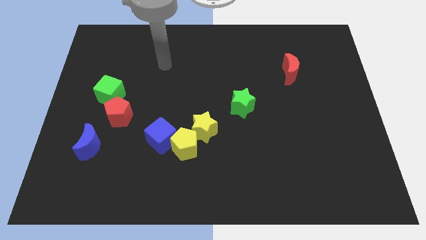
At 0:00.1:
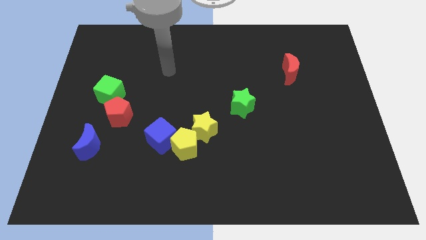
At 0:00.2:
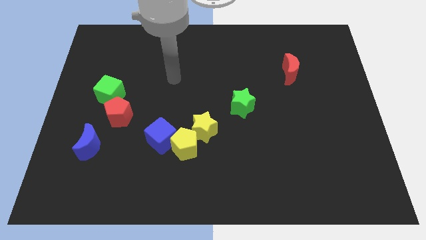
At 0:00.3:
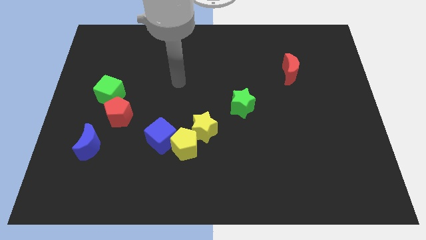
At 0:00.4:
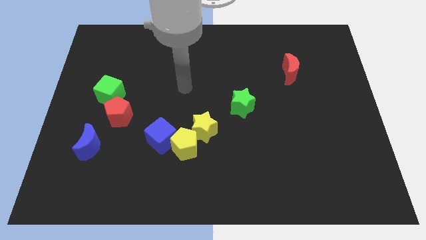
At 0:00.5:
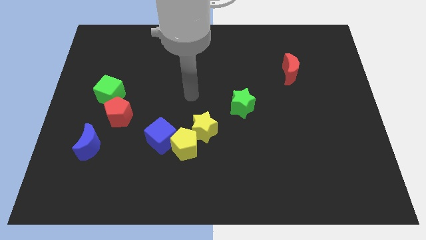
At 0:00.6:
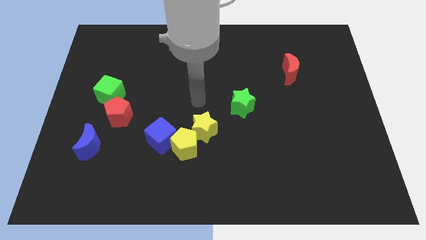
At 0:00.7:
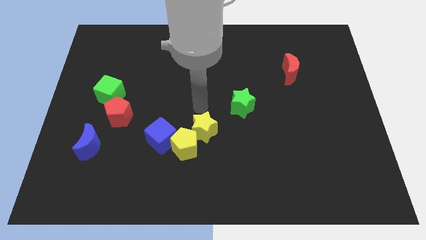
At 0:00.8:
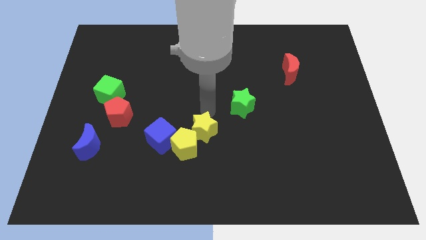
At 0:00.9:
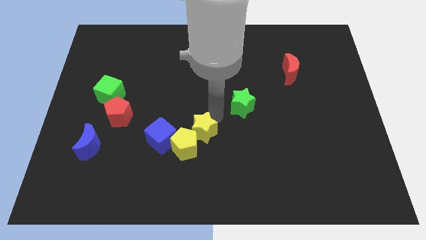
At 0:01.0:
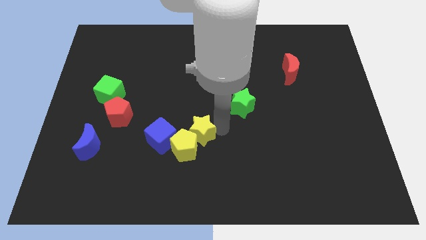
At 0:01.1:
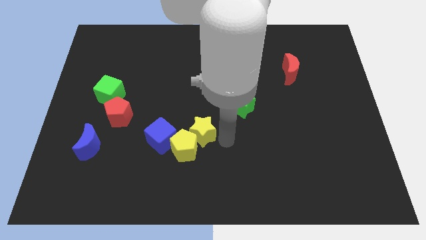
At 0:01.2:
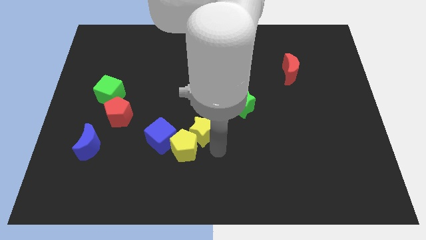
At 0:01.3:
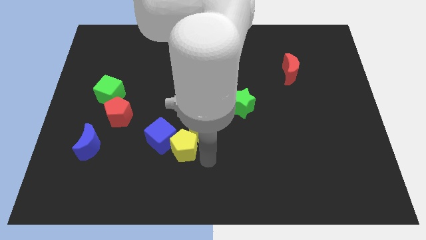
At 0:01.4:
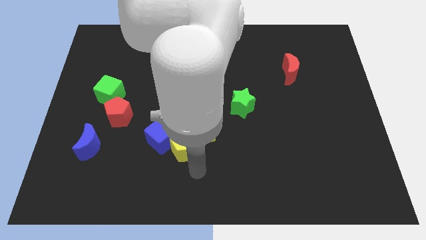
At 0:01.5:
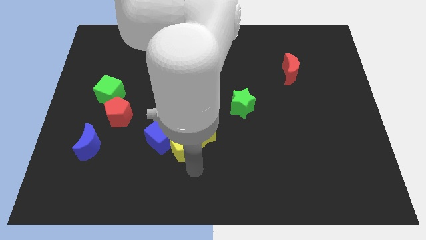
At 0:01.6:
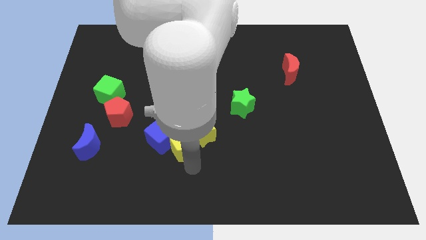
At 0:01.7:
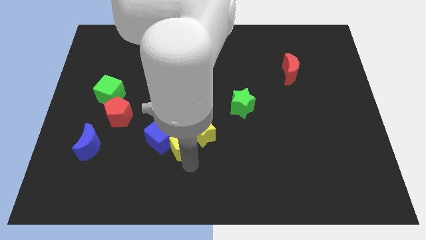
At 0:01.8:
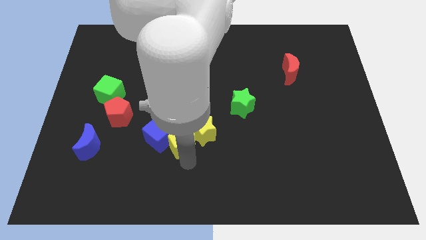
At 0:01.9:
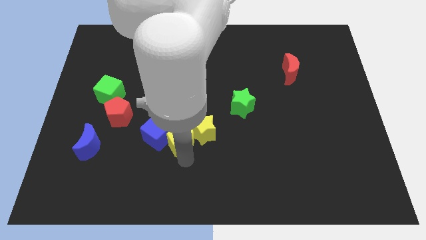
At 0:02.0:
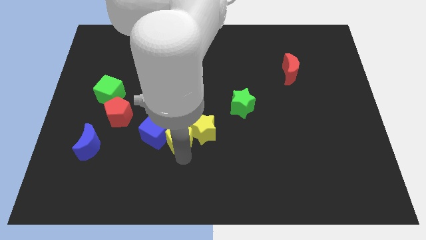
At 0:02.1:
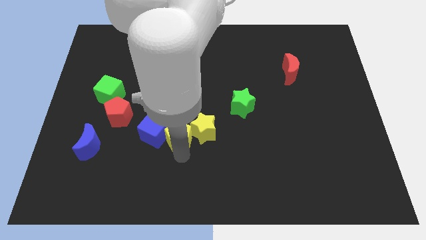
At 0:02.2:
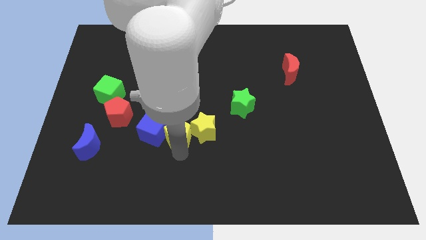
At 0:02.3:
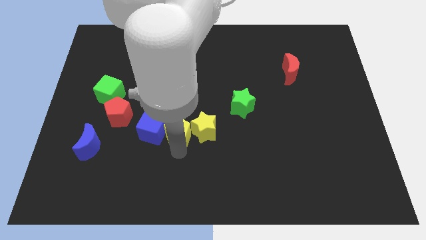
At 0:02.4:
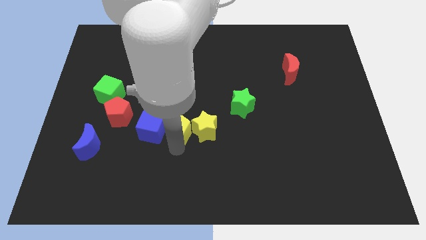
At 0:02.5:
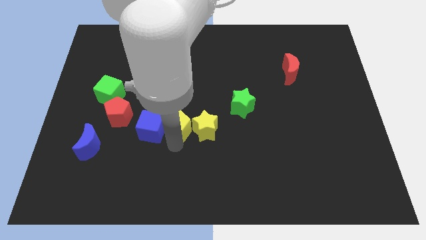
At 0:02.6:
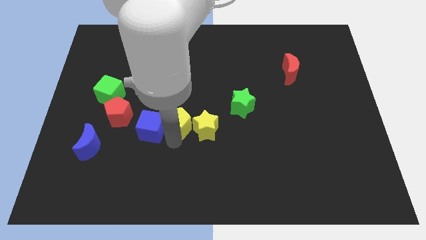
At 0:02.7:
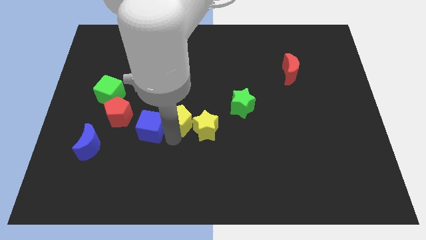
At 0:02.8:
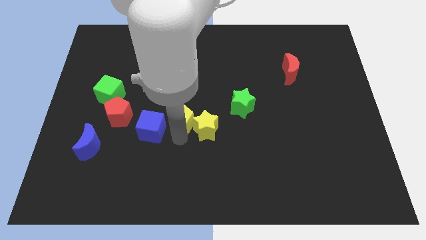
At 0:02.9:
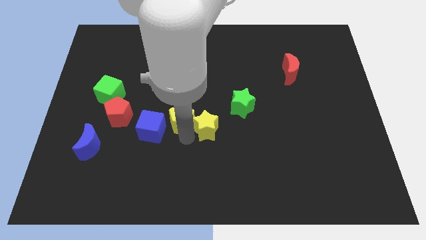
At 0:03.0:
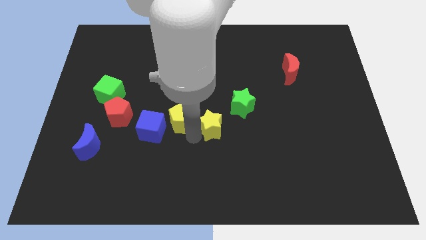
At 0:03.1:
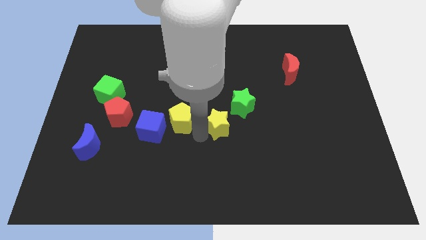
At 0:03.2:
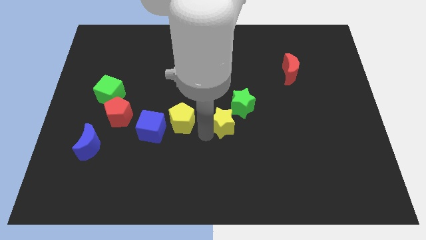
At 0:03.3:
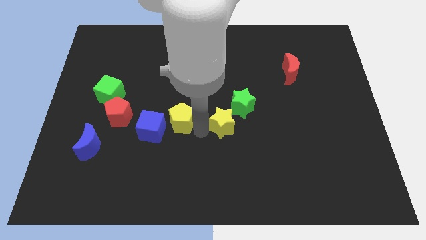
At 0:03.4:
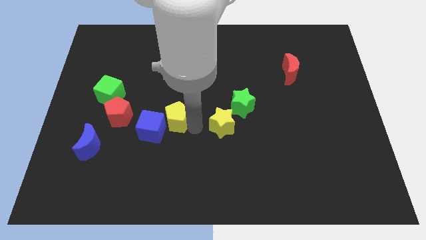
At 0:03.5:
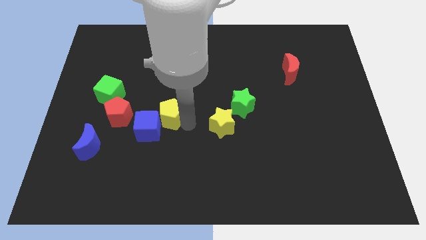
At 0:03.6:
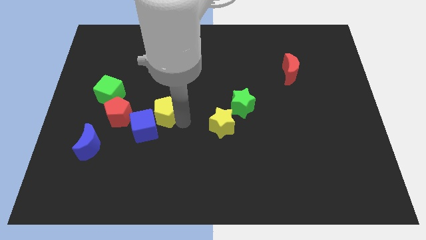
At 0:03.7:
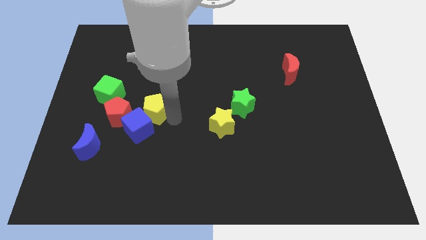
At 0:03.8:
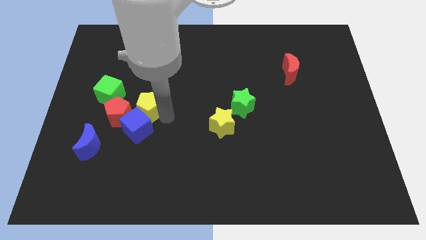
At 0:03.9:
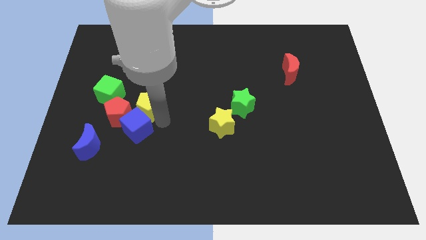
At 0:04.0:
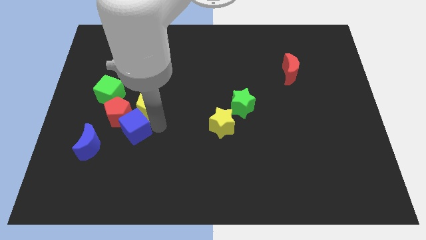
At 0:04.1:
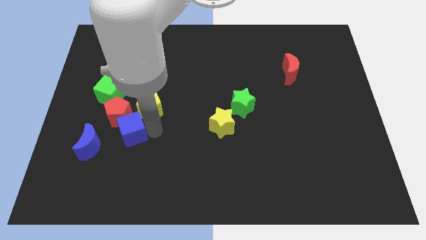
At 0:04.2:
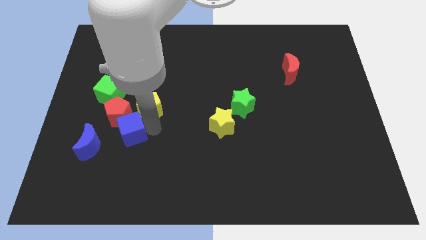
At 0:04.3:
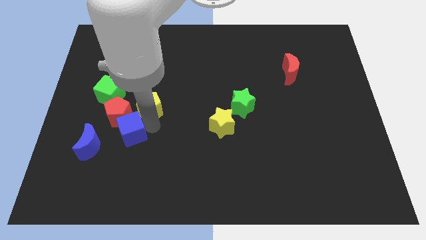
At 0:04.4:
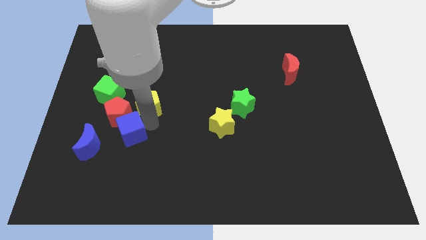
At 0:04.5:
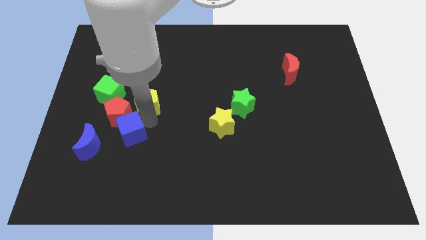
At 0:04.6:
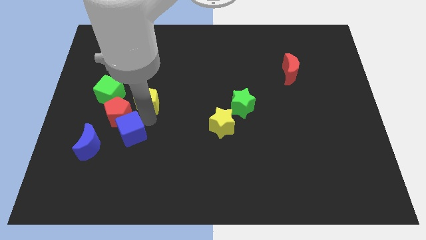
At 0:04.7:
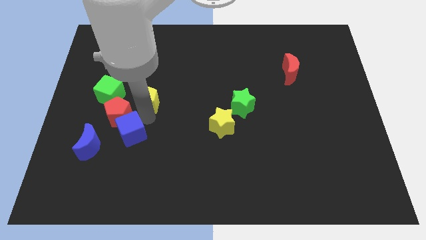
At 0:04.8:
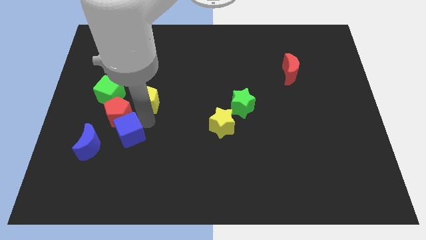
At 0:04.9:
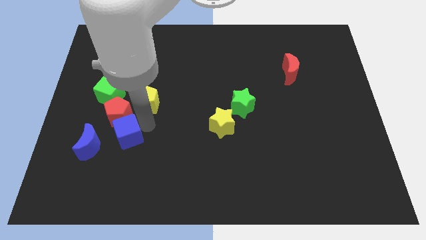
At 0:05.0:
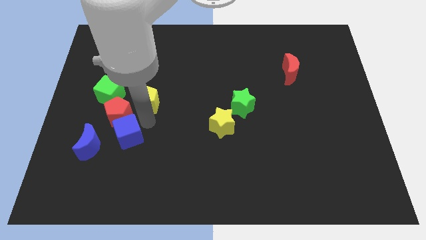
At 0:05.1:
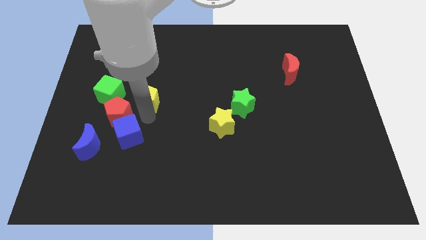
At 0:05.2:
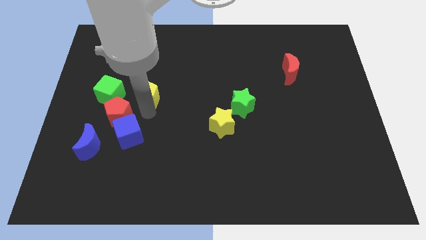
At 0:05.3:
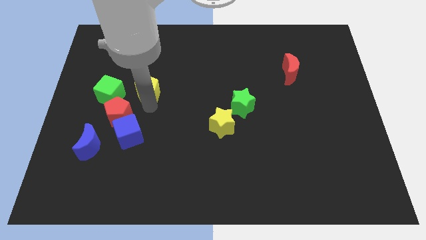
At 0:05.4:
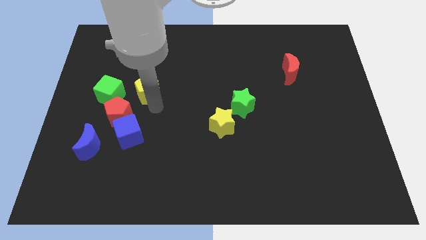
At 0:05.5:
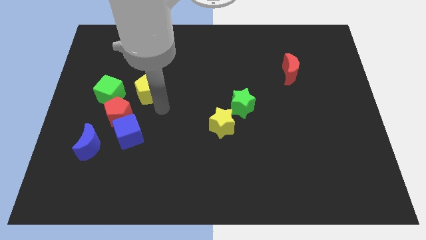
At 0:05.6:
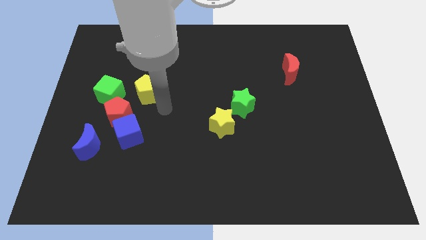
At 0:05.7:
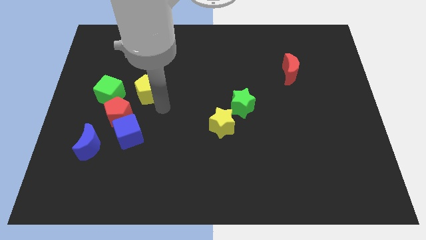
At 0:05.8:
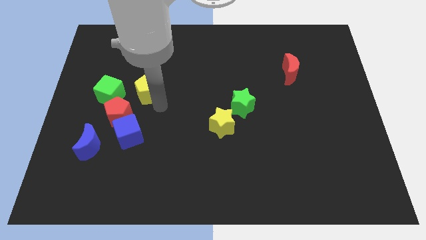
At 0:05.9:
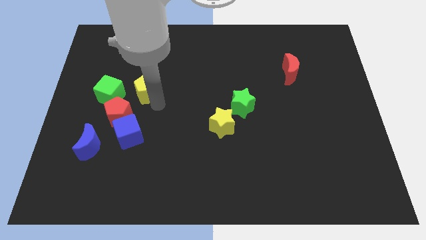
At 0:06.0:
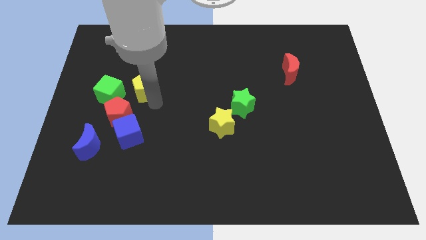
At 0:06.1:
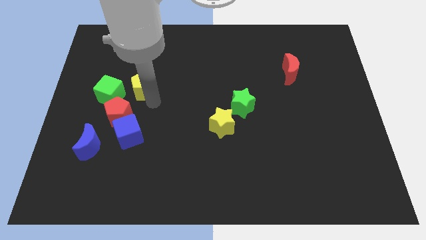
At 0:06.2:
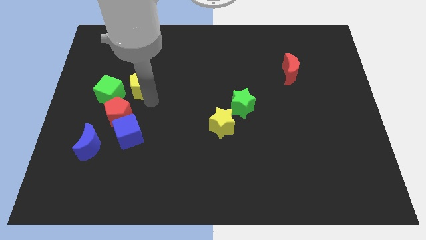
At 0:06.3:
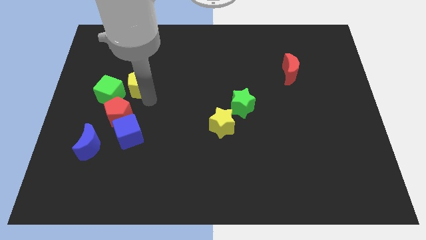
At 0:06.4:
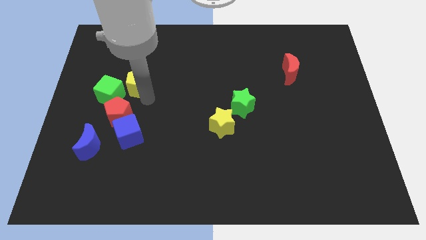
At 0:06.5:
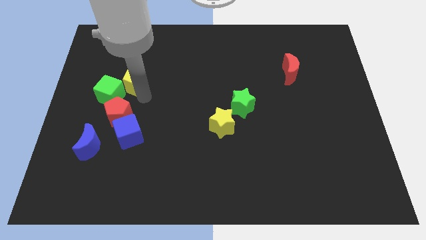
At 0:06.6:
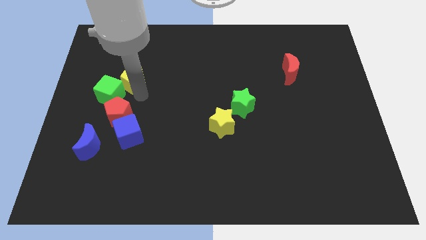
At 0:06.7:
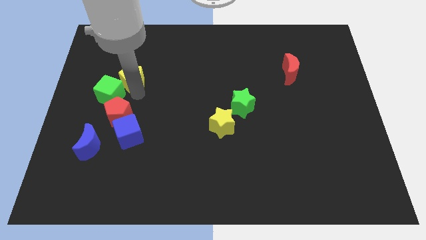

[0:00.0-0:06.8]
push the yellow pentagon to the top of the green cube

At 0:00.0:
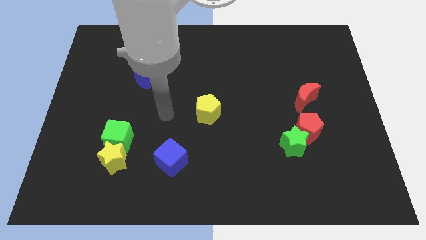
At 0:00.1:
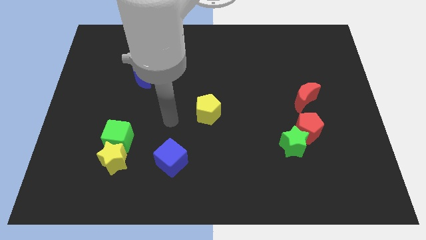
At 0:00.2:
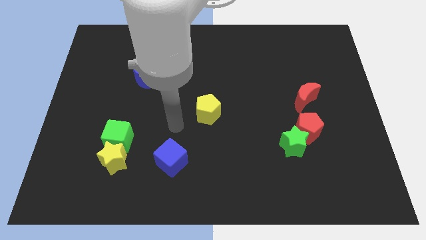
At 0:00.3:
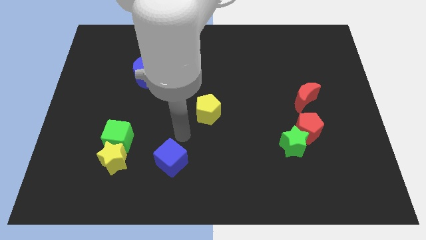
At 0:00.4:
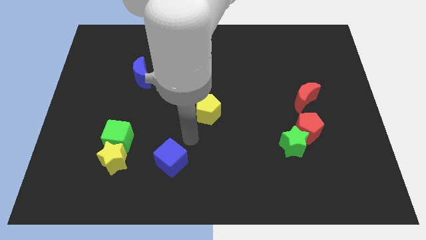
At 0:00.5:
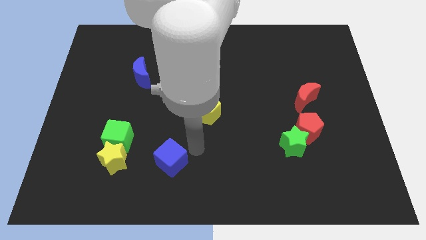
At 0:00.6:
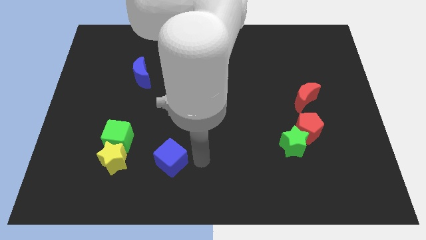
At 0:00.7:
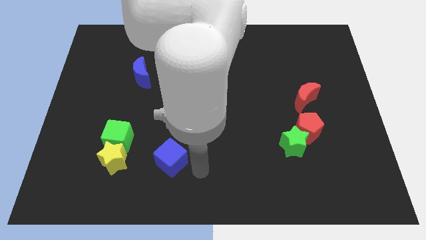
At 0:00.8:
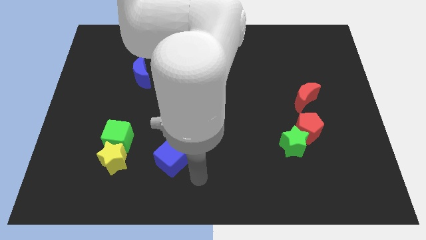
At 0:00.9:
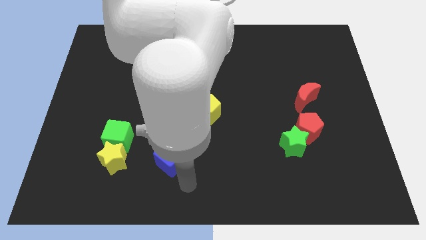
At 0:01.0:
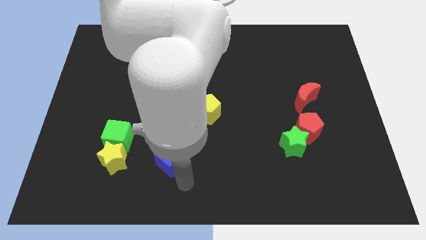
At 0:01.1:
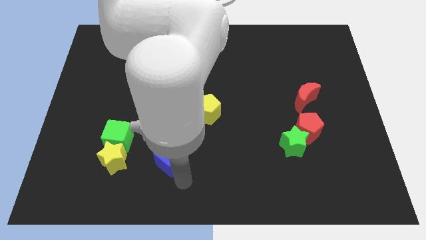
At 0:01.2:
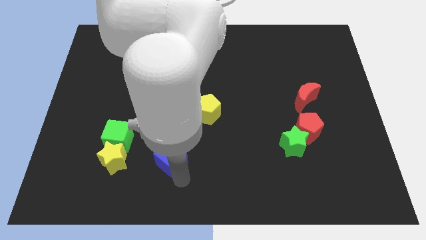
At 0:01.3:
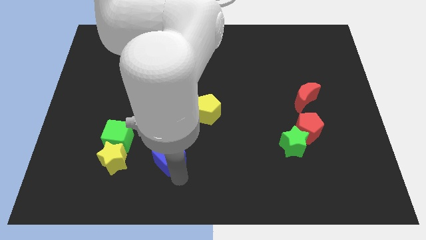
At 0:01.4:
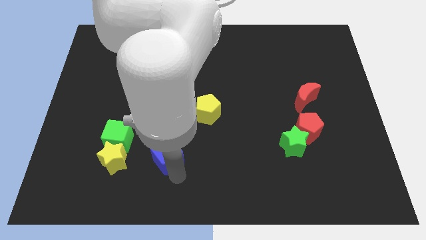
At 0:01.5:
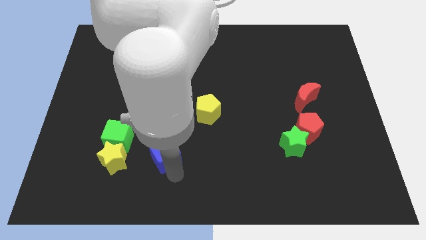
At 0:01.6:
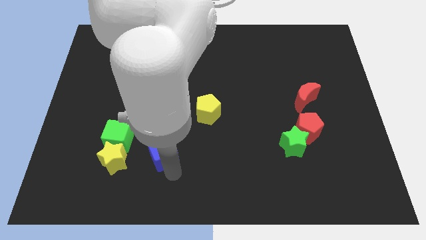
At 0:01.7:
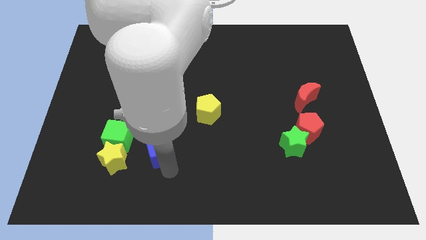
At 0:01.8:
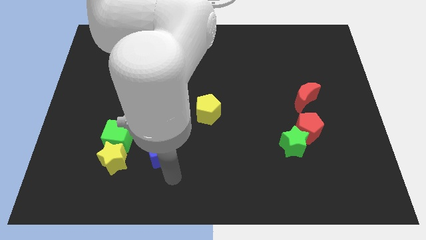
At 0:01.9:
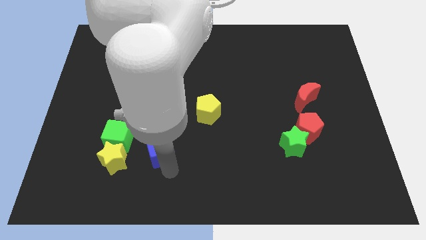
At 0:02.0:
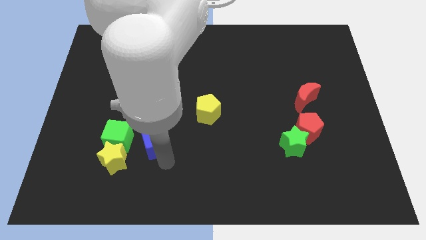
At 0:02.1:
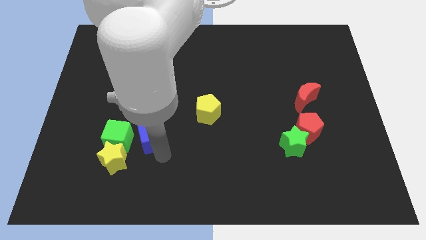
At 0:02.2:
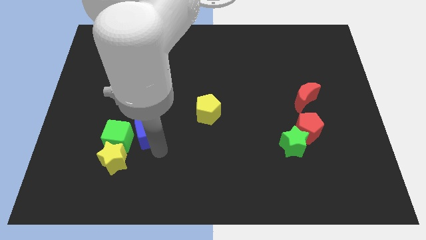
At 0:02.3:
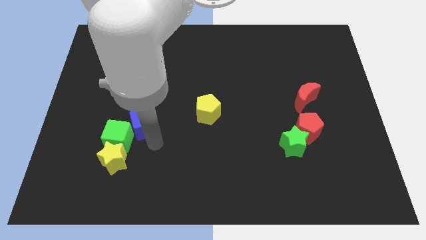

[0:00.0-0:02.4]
put the blue cube below the blue moon
